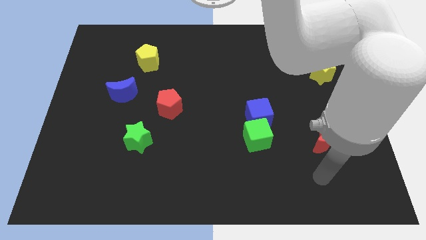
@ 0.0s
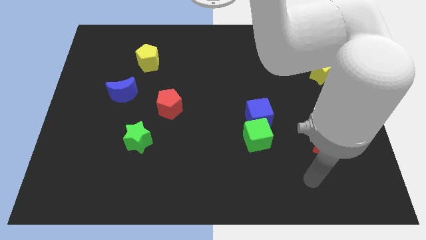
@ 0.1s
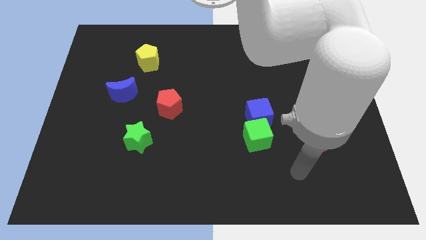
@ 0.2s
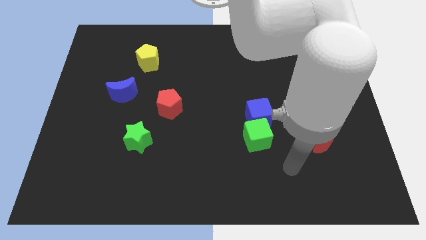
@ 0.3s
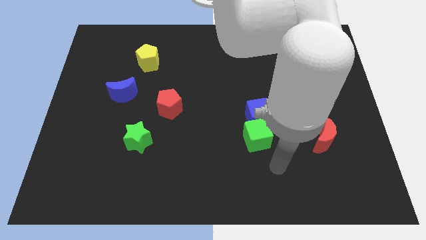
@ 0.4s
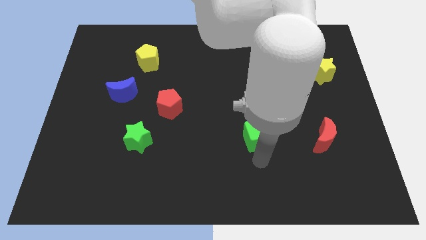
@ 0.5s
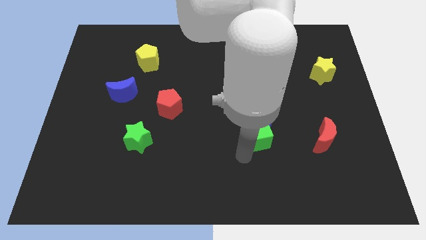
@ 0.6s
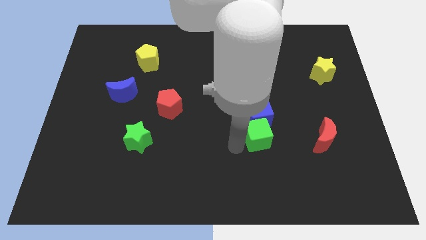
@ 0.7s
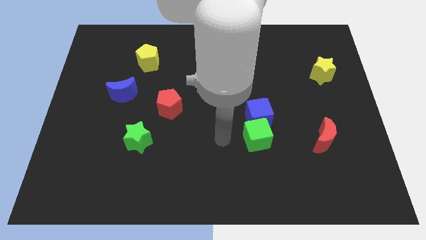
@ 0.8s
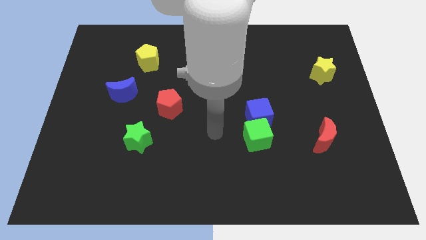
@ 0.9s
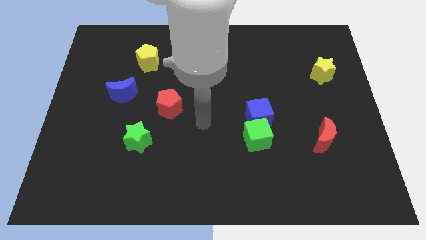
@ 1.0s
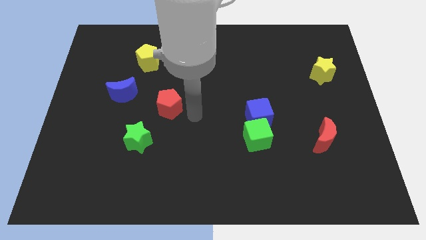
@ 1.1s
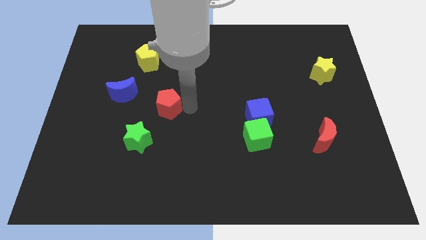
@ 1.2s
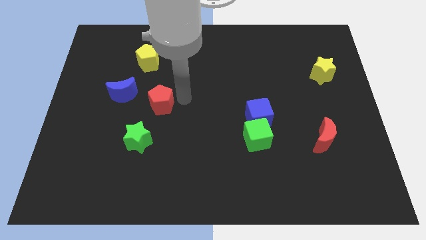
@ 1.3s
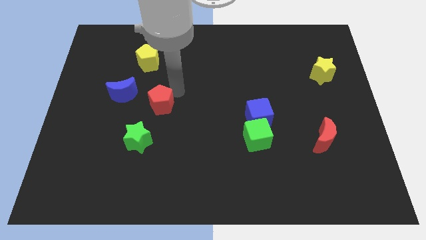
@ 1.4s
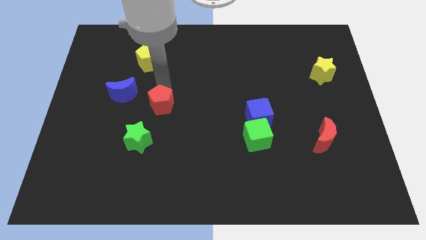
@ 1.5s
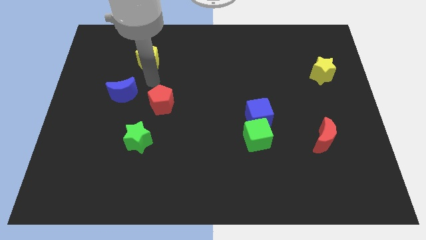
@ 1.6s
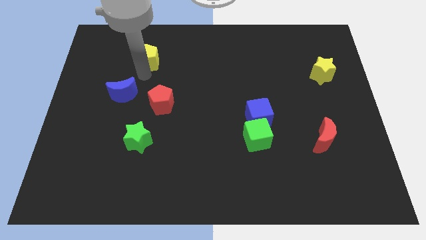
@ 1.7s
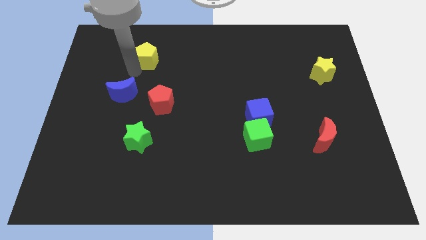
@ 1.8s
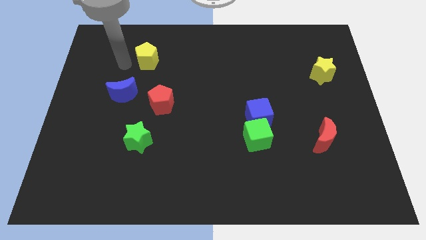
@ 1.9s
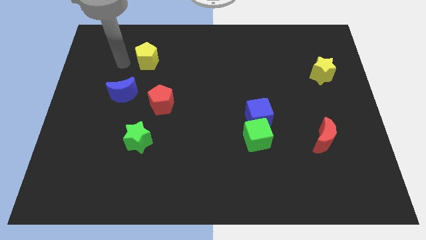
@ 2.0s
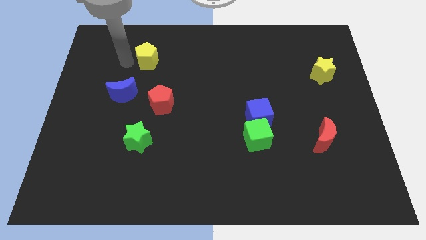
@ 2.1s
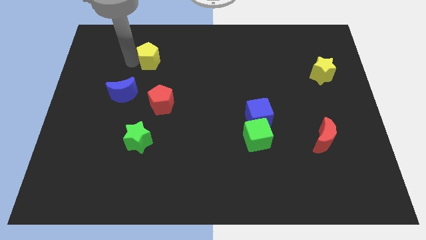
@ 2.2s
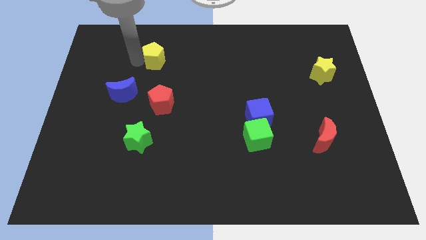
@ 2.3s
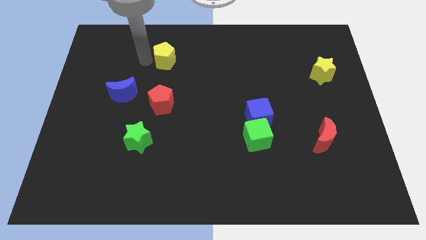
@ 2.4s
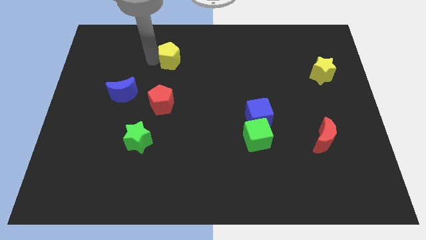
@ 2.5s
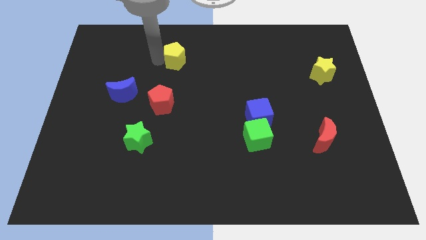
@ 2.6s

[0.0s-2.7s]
slightly slide the yellow pentagon right

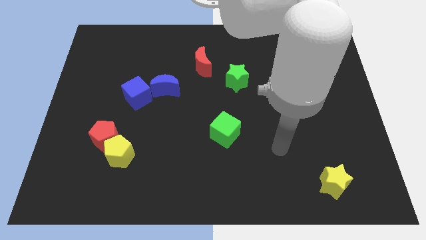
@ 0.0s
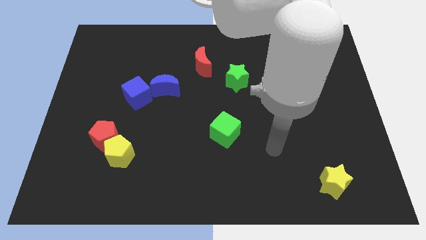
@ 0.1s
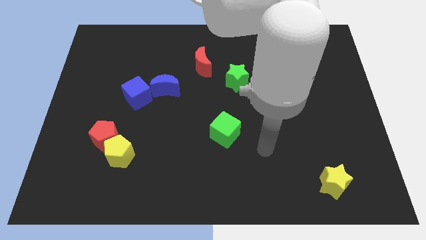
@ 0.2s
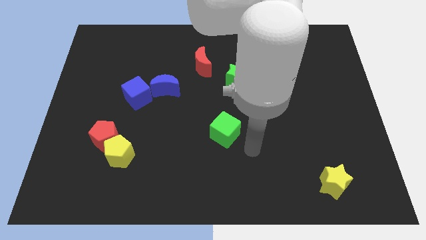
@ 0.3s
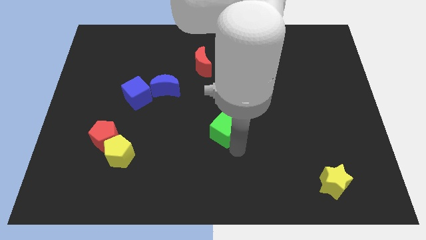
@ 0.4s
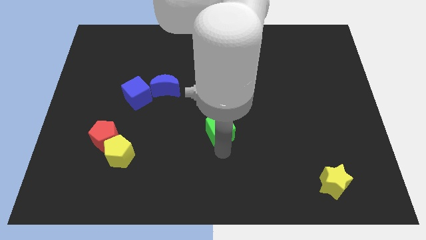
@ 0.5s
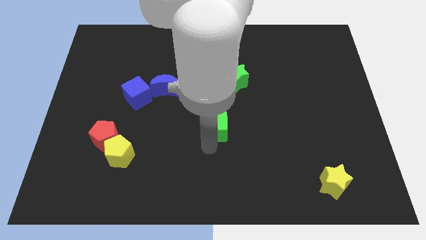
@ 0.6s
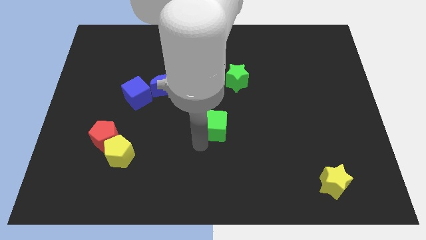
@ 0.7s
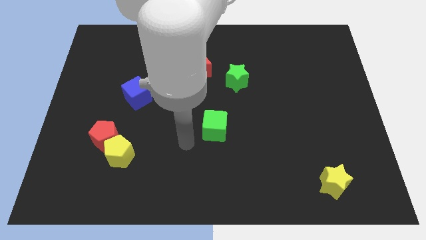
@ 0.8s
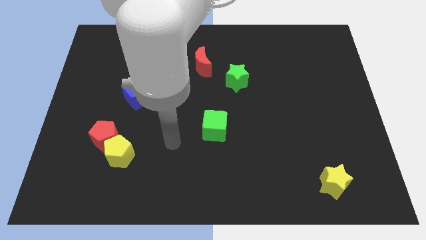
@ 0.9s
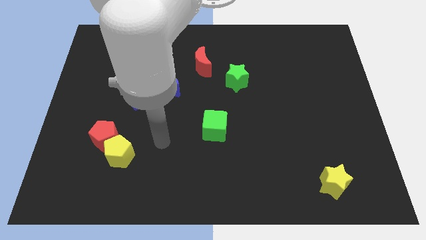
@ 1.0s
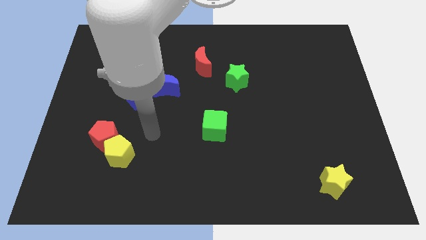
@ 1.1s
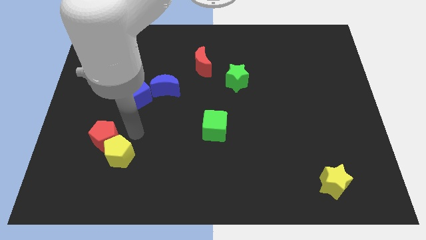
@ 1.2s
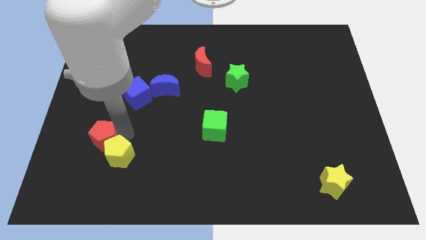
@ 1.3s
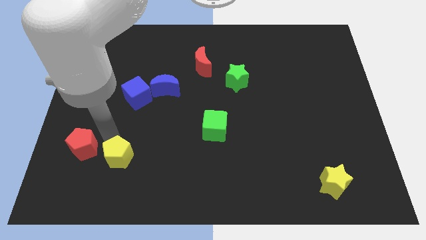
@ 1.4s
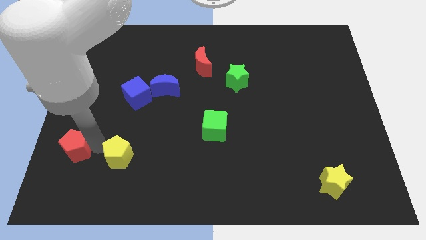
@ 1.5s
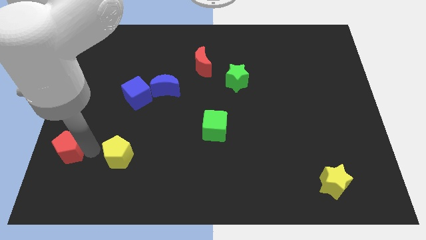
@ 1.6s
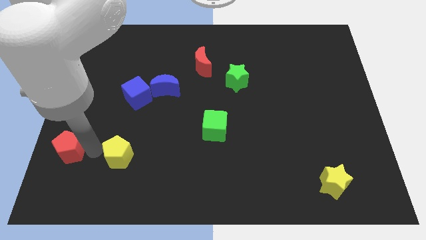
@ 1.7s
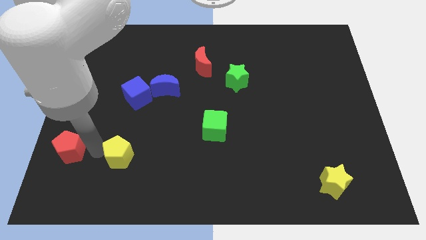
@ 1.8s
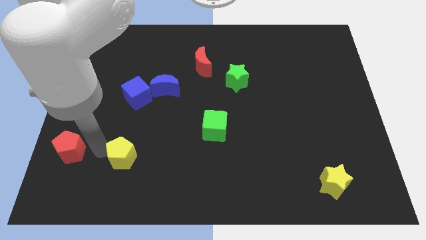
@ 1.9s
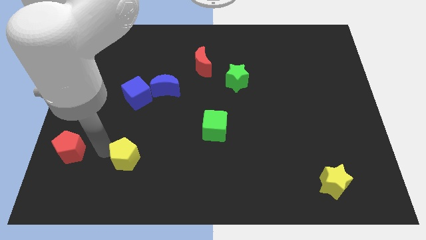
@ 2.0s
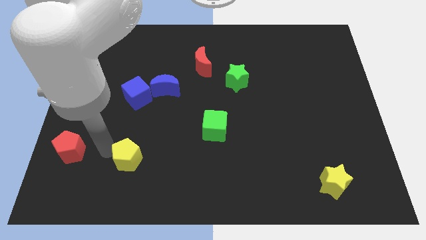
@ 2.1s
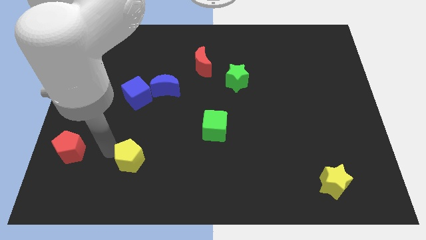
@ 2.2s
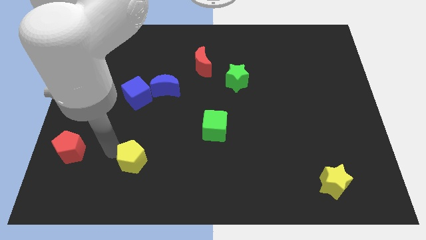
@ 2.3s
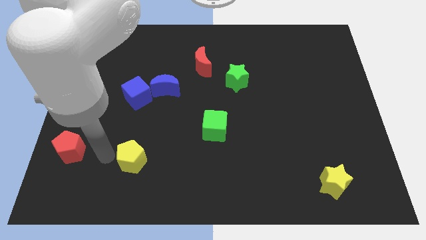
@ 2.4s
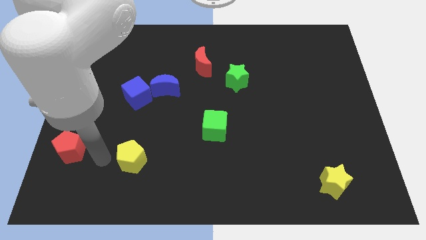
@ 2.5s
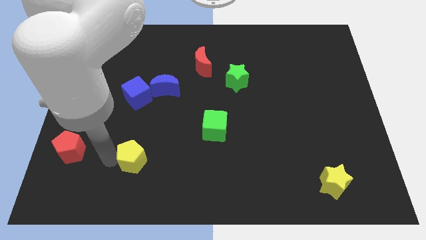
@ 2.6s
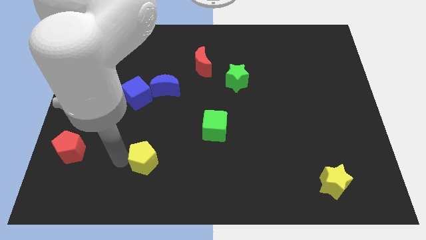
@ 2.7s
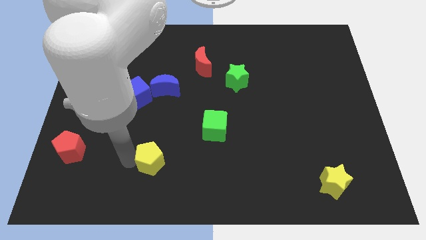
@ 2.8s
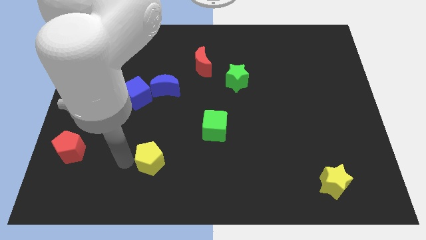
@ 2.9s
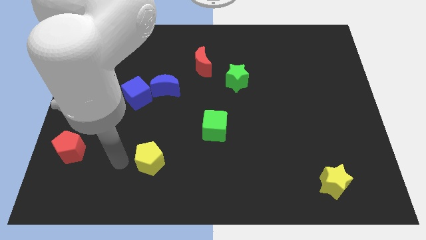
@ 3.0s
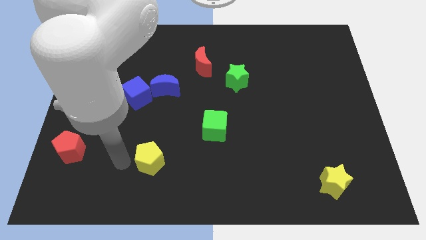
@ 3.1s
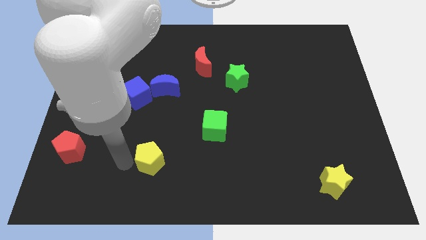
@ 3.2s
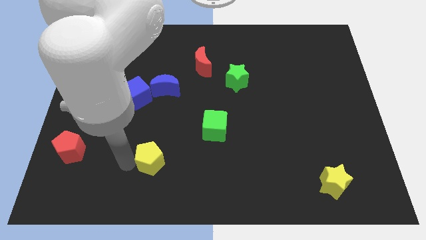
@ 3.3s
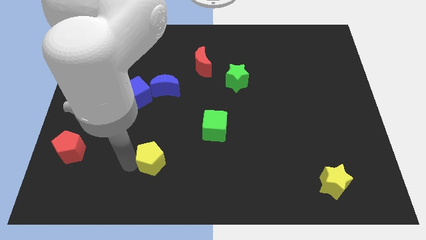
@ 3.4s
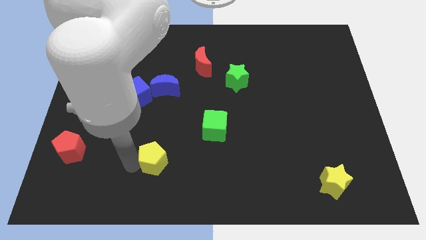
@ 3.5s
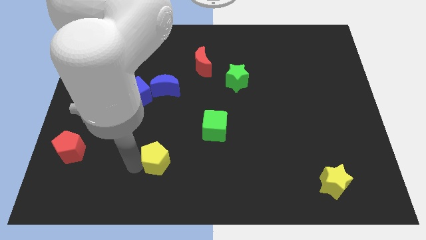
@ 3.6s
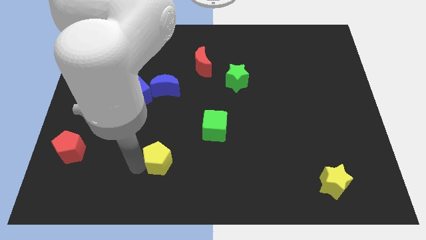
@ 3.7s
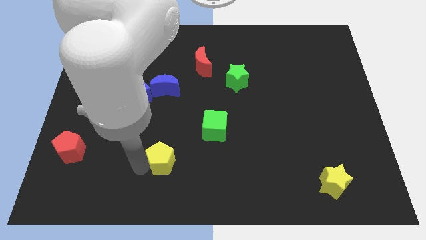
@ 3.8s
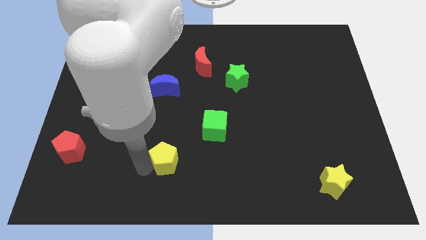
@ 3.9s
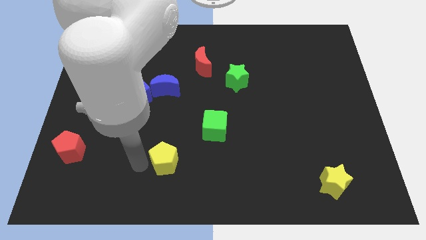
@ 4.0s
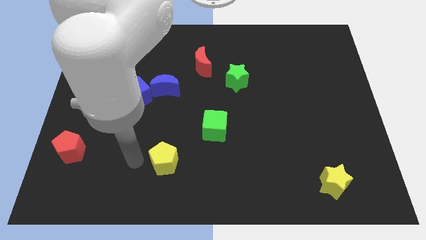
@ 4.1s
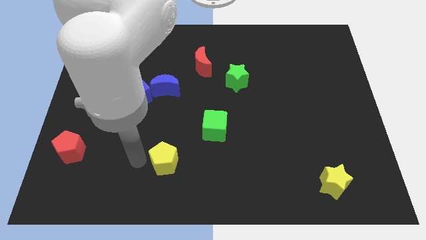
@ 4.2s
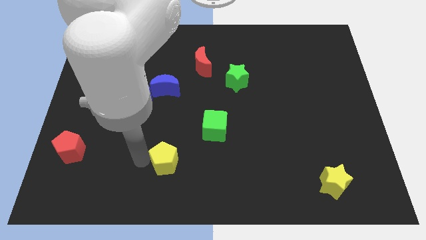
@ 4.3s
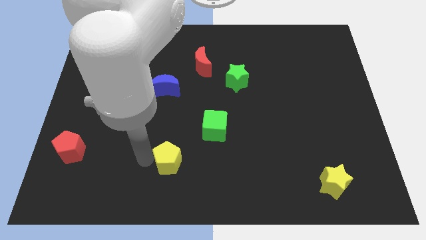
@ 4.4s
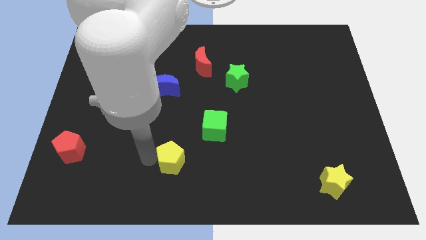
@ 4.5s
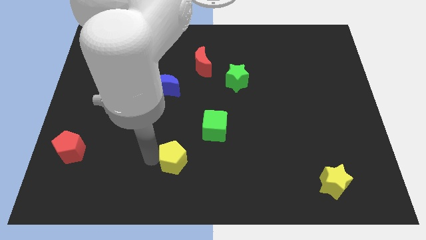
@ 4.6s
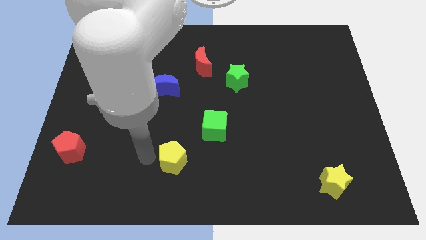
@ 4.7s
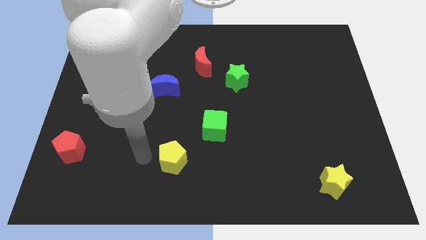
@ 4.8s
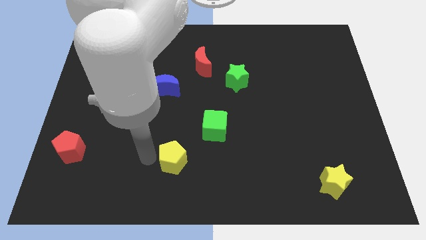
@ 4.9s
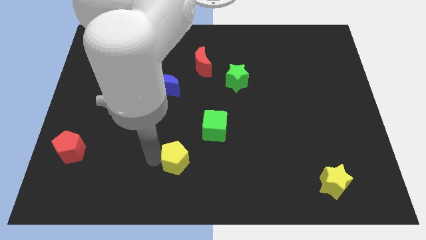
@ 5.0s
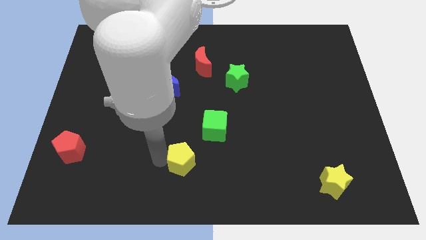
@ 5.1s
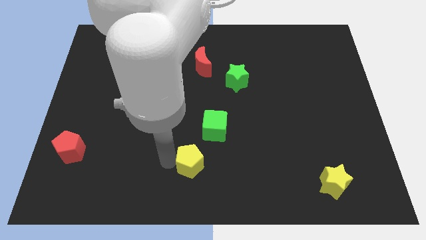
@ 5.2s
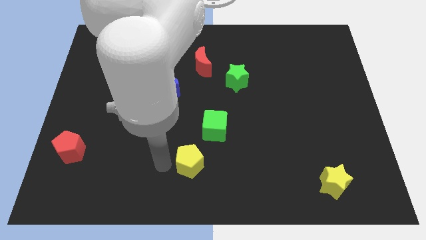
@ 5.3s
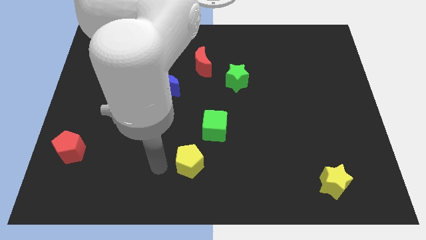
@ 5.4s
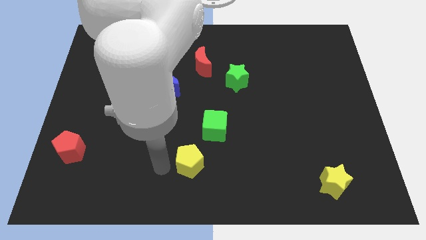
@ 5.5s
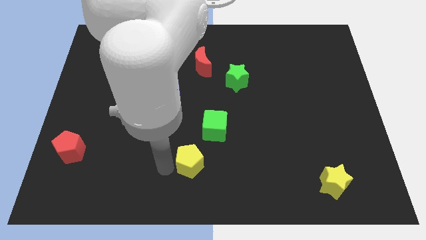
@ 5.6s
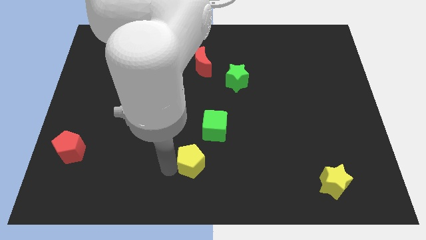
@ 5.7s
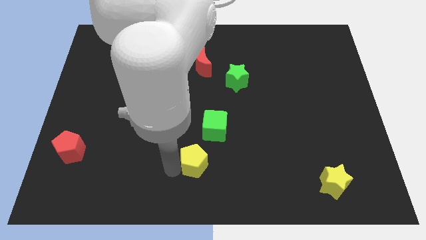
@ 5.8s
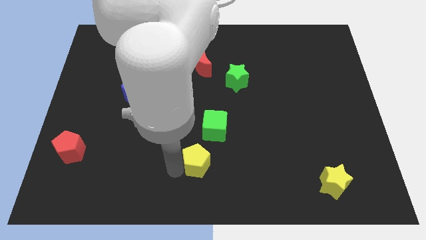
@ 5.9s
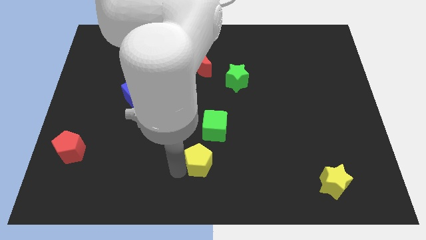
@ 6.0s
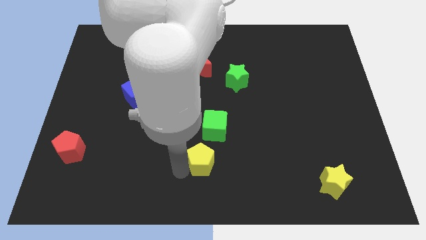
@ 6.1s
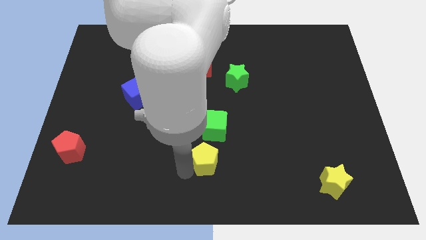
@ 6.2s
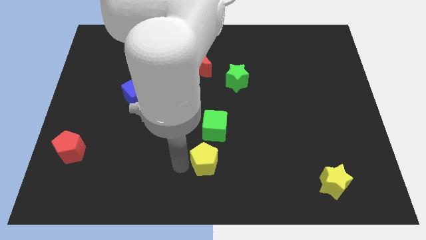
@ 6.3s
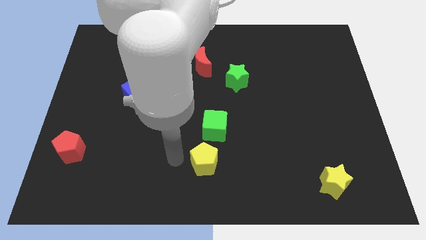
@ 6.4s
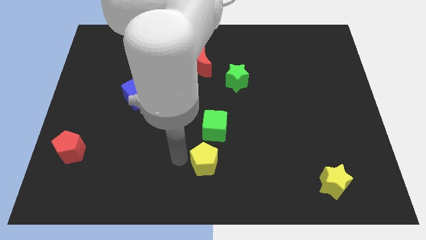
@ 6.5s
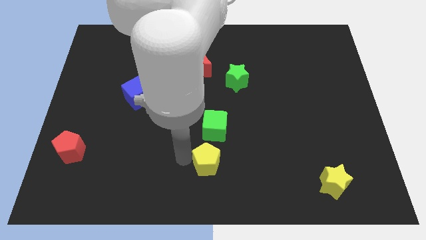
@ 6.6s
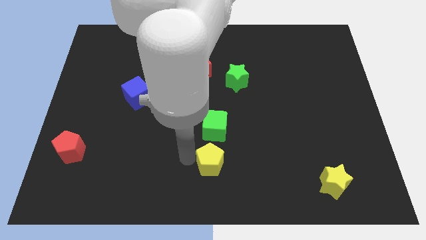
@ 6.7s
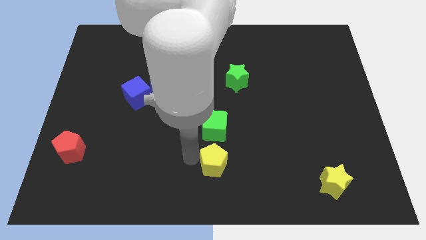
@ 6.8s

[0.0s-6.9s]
move the yellow pentagon right
